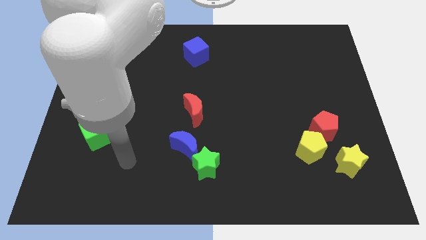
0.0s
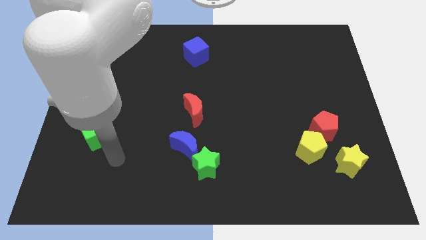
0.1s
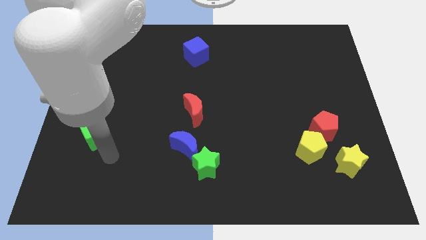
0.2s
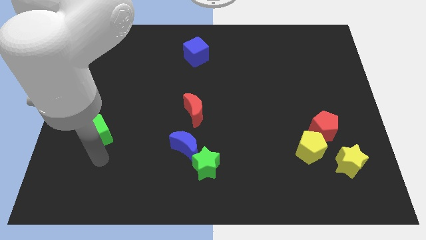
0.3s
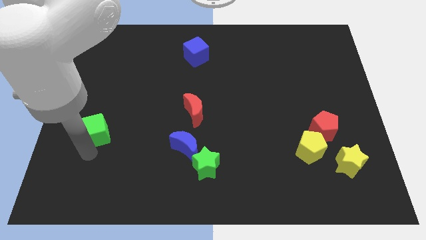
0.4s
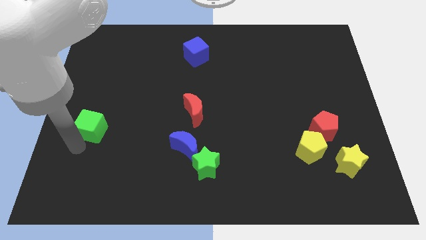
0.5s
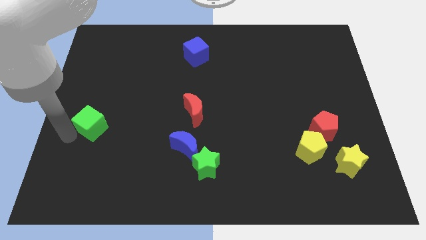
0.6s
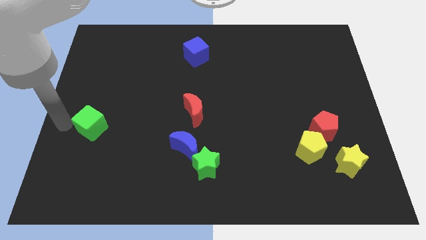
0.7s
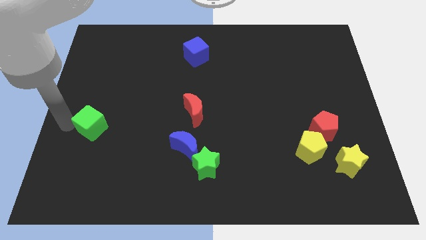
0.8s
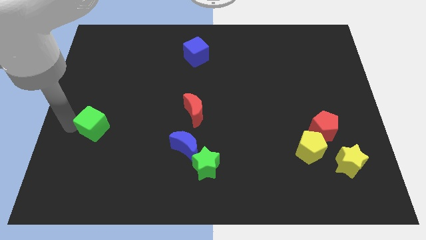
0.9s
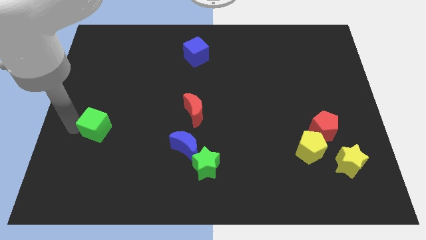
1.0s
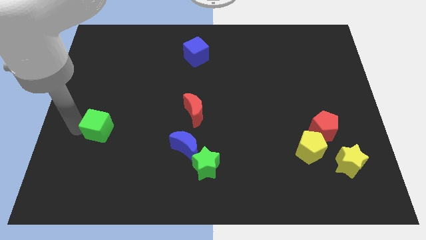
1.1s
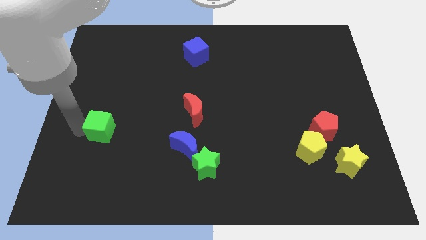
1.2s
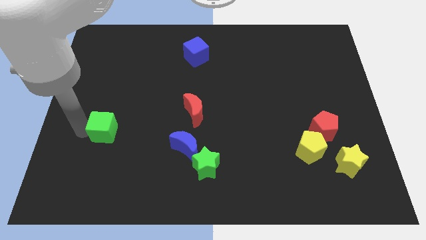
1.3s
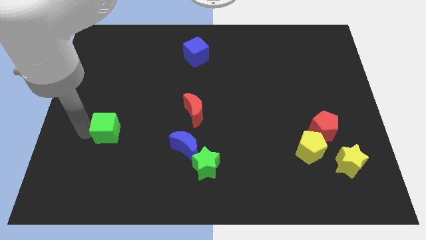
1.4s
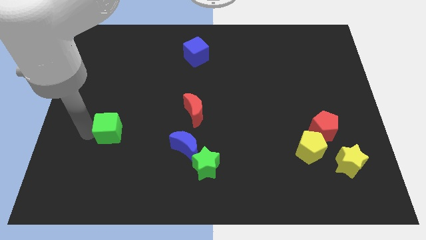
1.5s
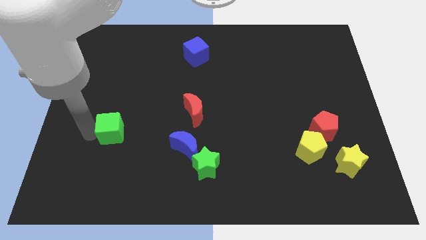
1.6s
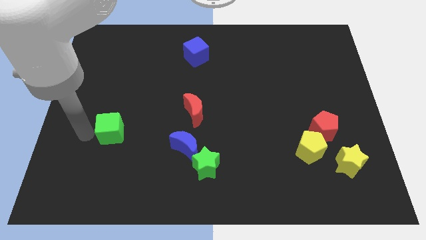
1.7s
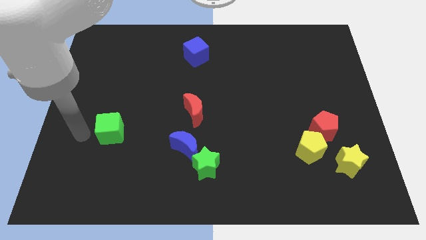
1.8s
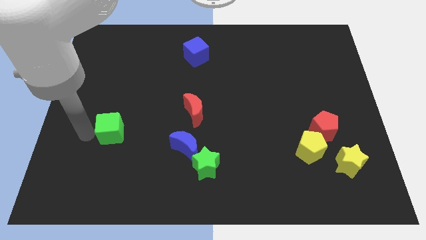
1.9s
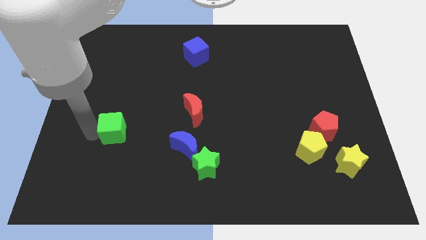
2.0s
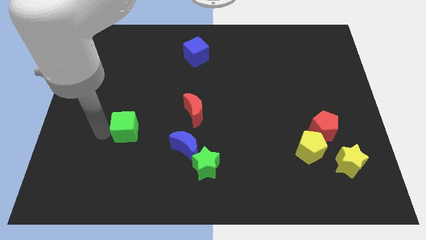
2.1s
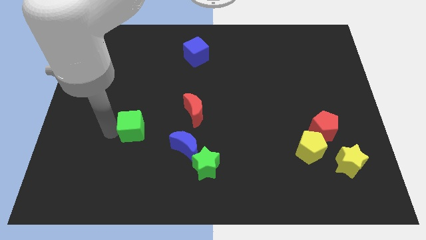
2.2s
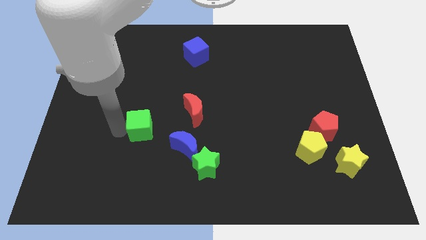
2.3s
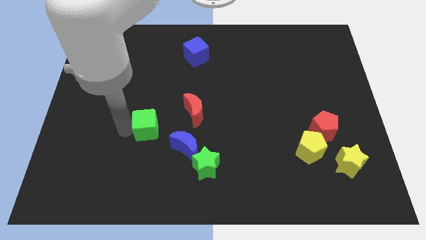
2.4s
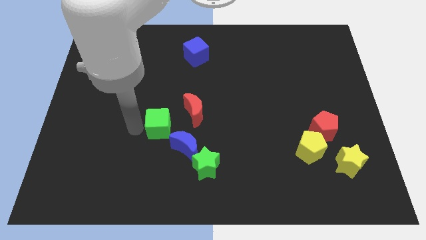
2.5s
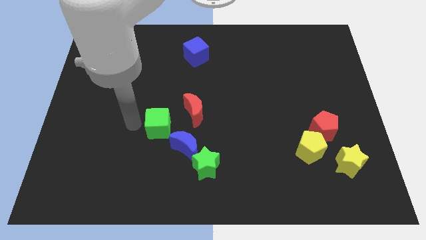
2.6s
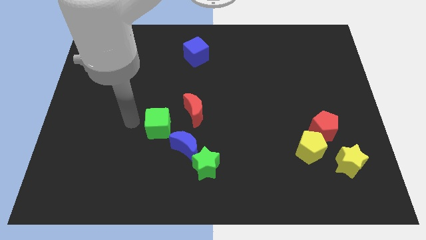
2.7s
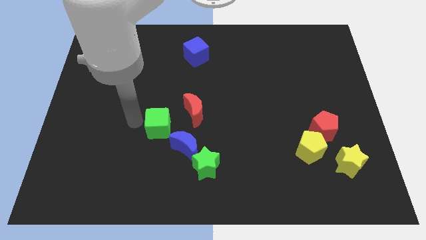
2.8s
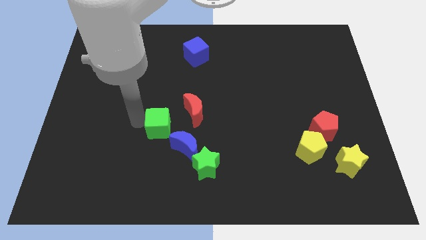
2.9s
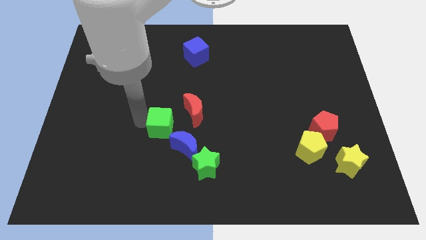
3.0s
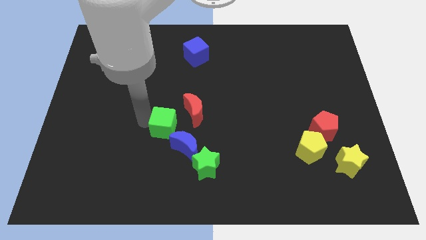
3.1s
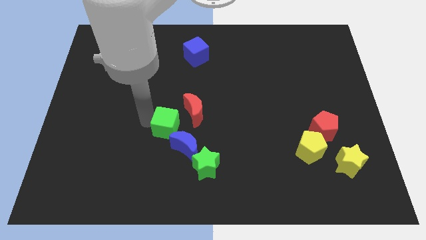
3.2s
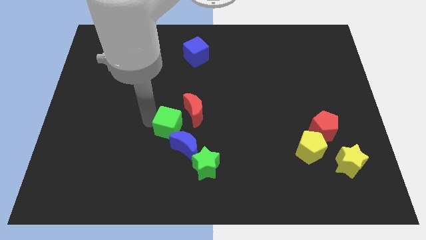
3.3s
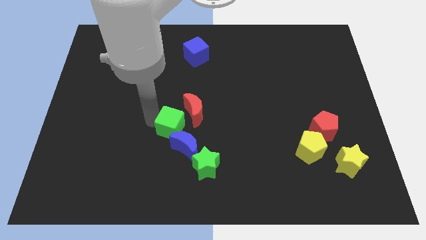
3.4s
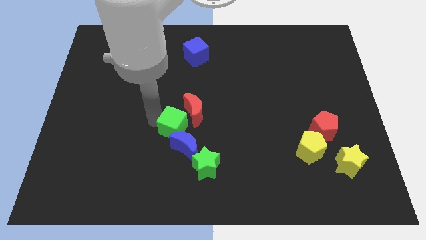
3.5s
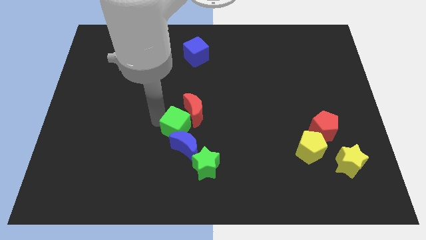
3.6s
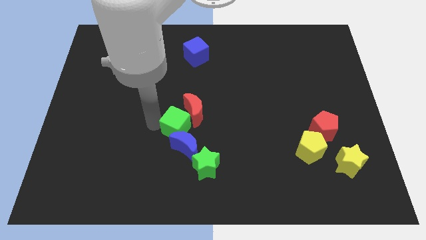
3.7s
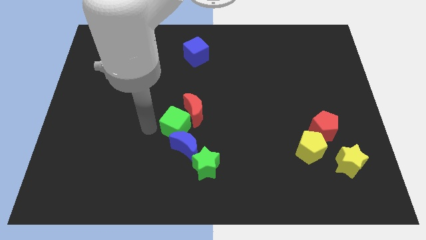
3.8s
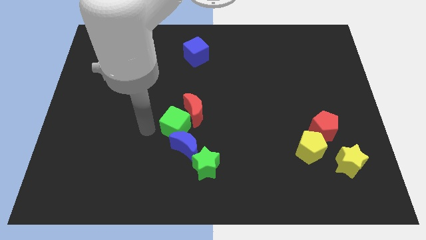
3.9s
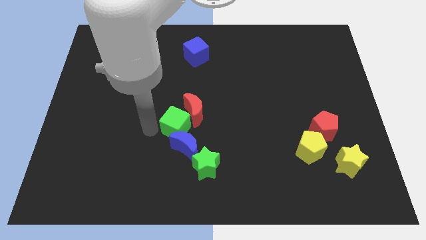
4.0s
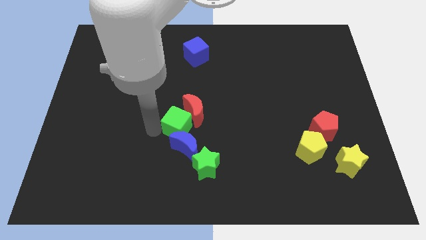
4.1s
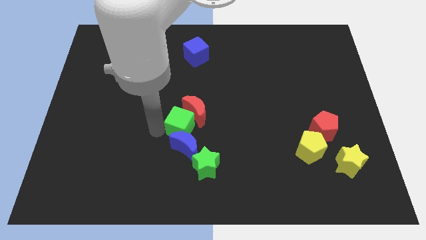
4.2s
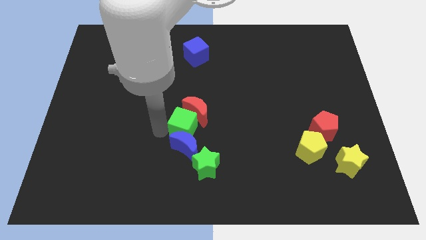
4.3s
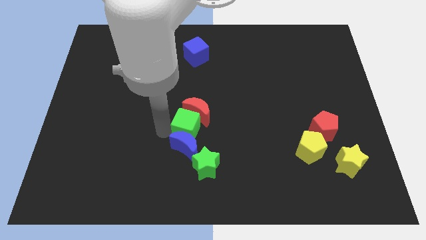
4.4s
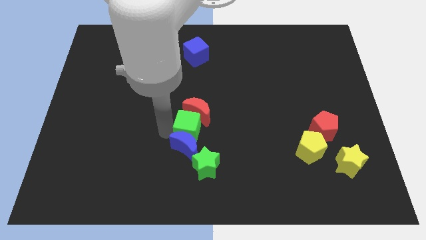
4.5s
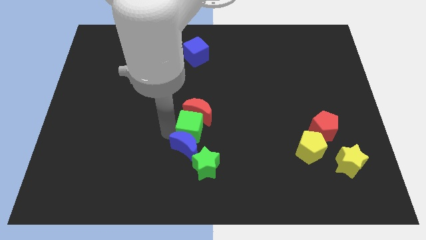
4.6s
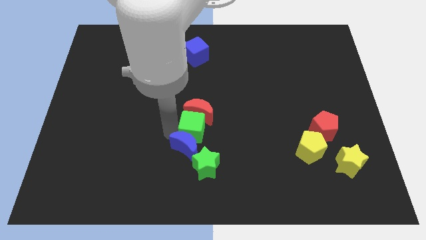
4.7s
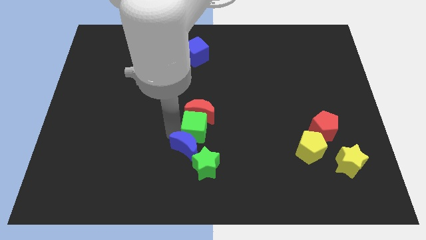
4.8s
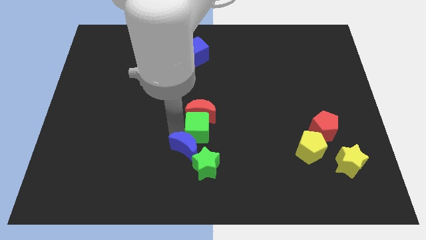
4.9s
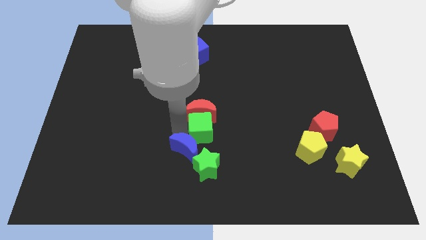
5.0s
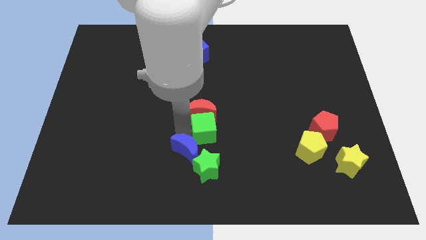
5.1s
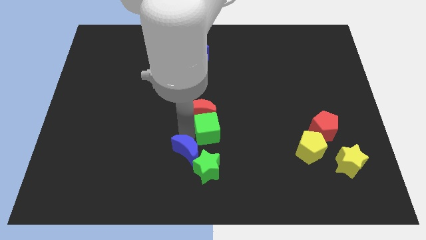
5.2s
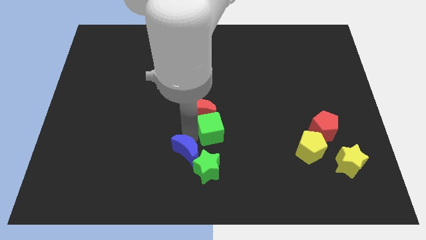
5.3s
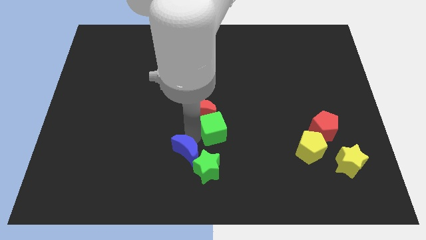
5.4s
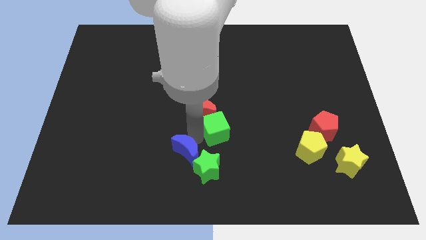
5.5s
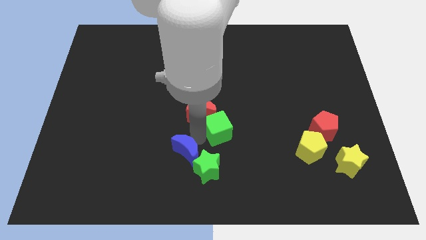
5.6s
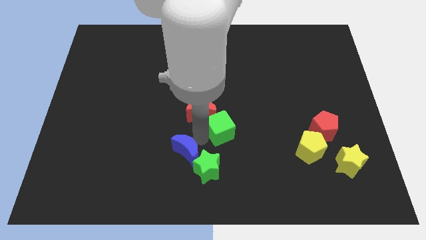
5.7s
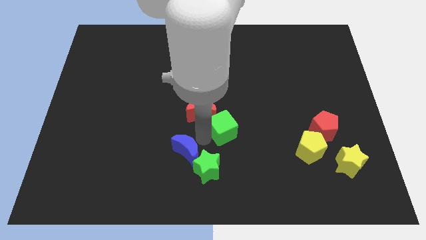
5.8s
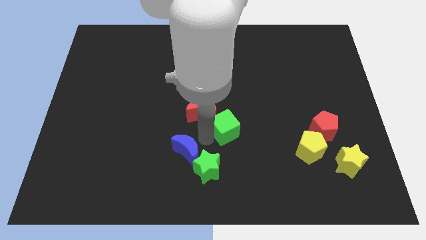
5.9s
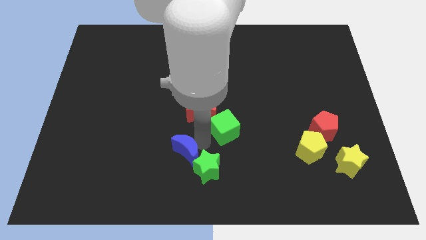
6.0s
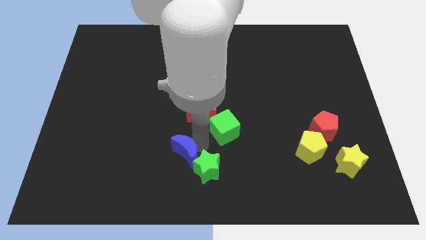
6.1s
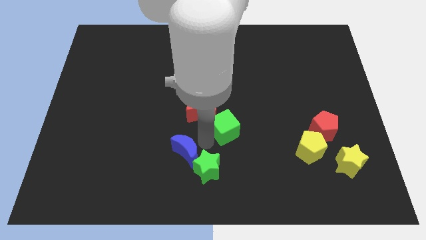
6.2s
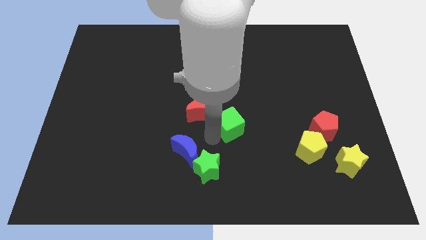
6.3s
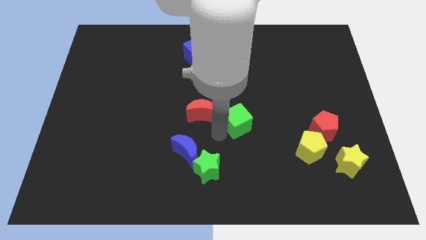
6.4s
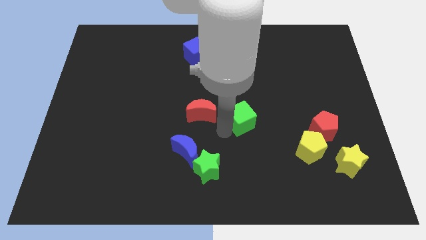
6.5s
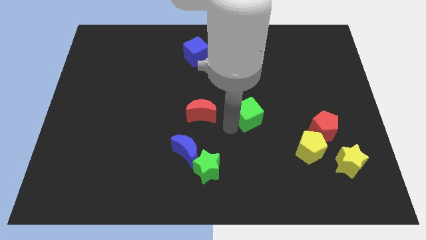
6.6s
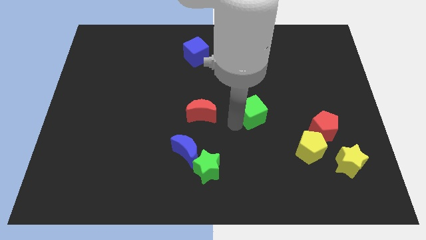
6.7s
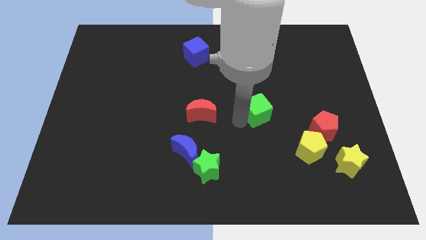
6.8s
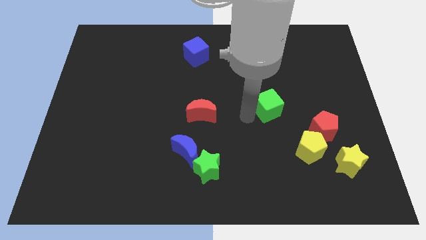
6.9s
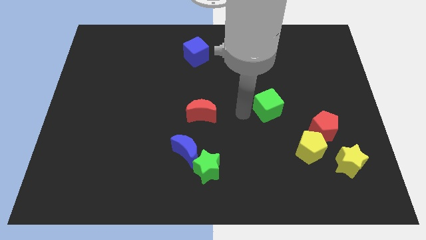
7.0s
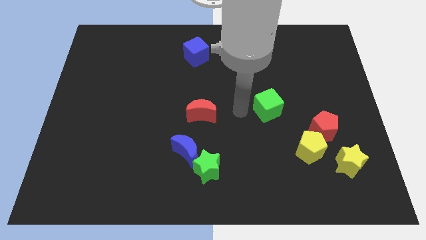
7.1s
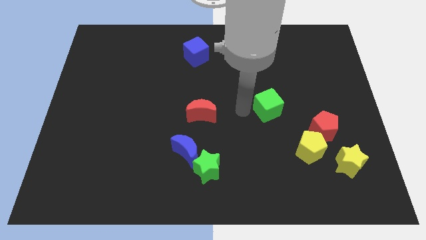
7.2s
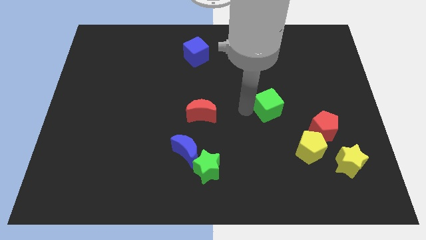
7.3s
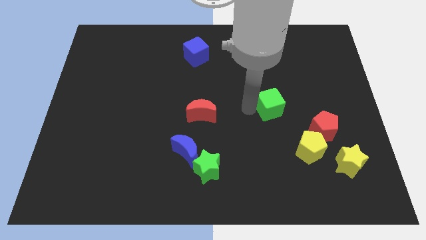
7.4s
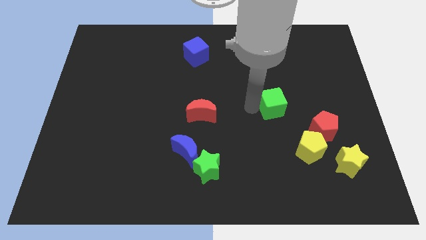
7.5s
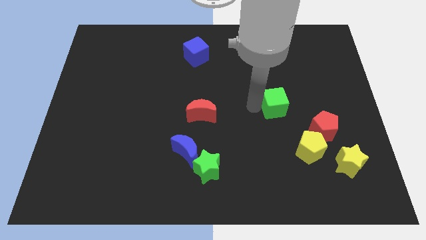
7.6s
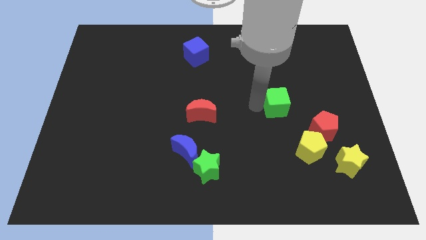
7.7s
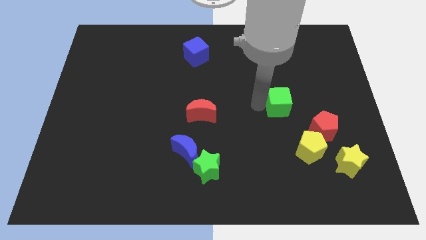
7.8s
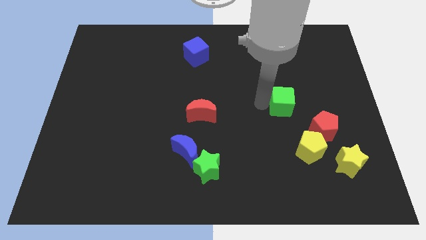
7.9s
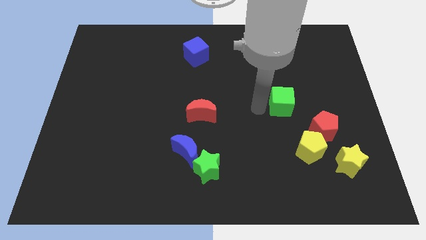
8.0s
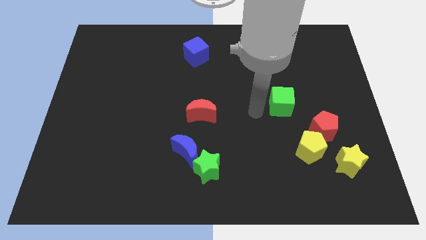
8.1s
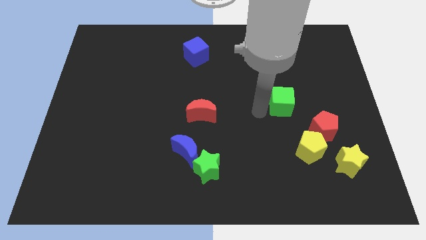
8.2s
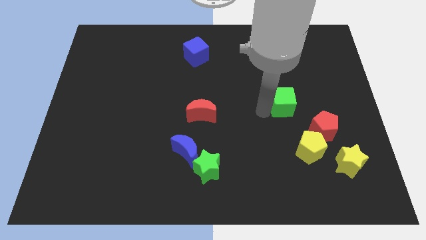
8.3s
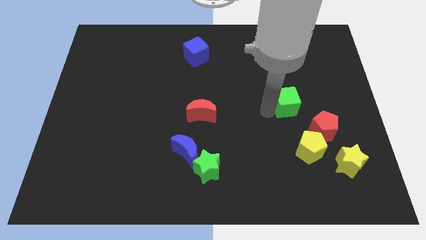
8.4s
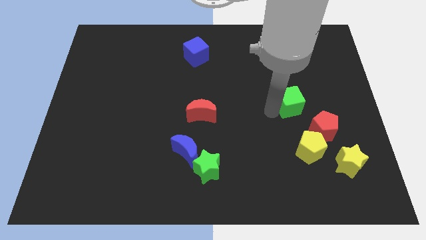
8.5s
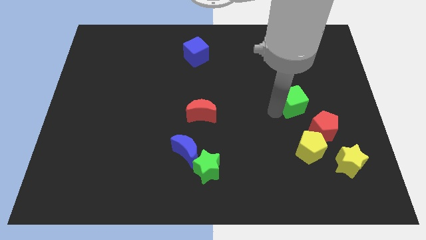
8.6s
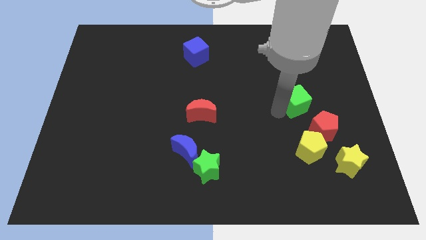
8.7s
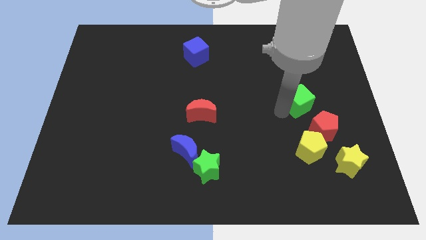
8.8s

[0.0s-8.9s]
move the green cube to the top side of the red pentagon
